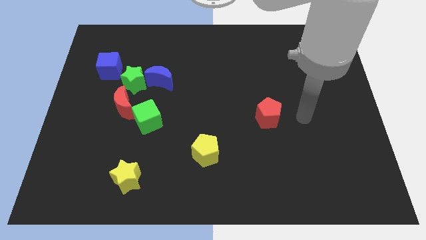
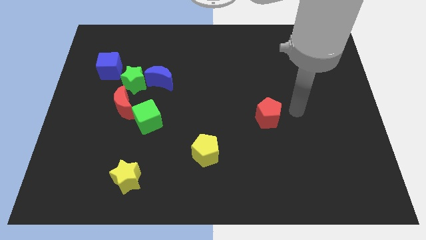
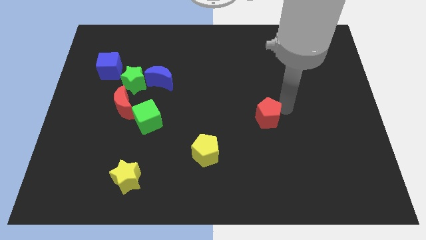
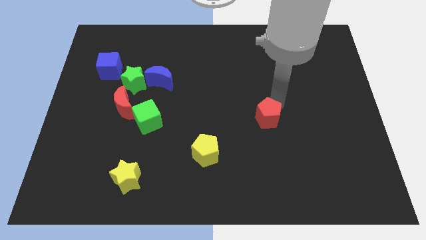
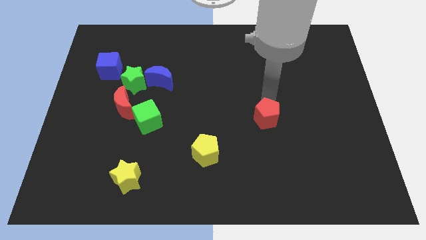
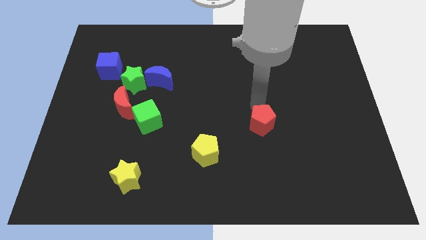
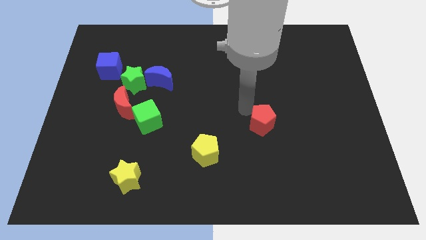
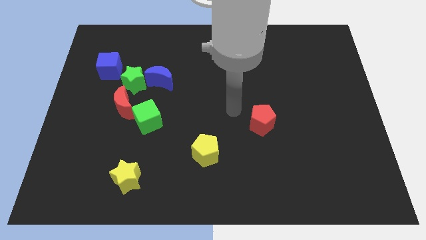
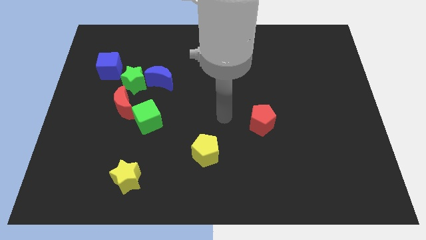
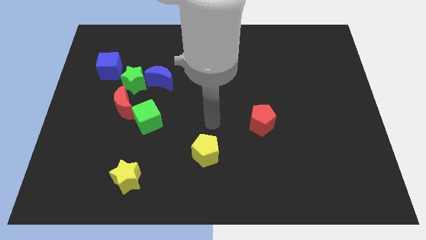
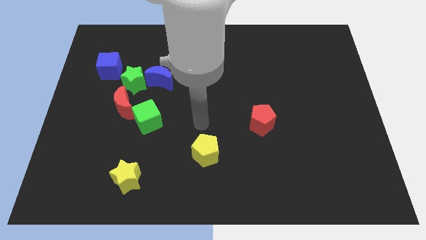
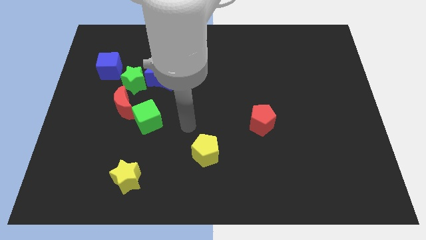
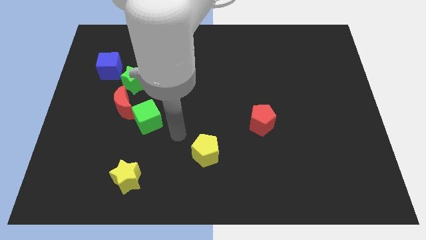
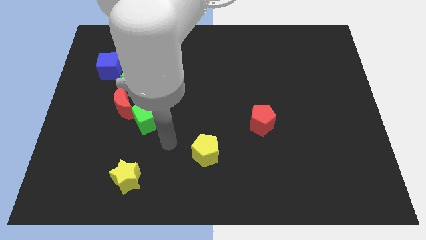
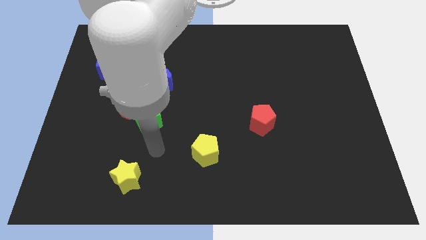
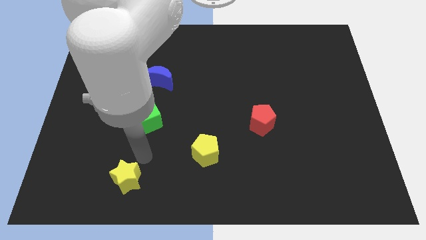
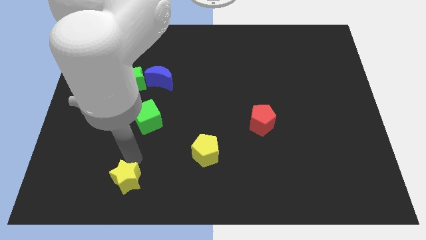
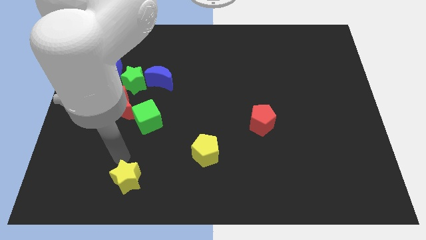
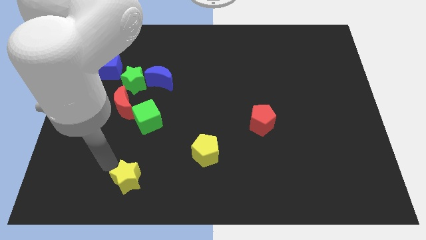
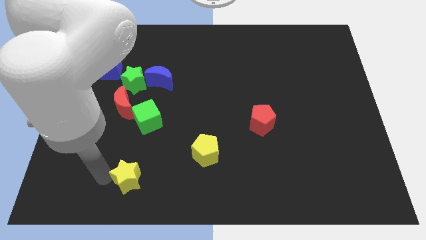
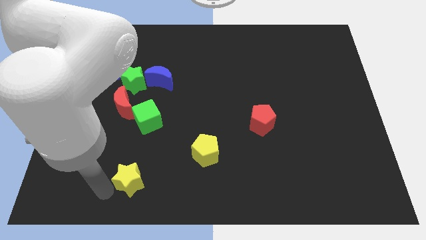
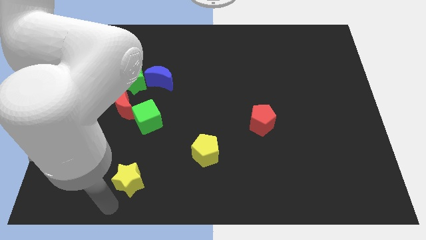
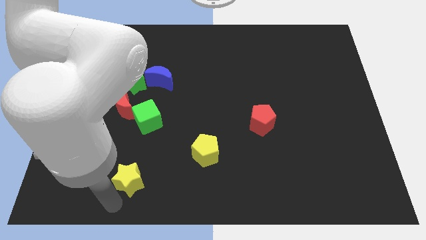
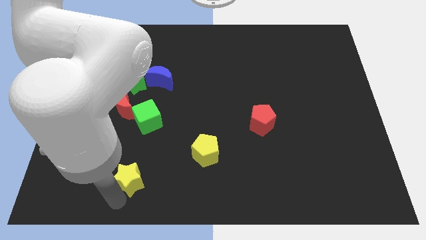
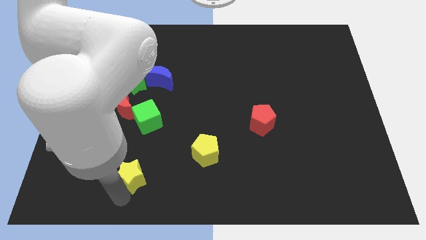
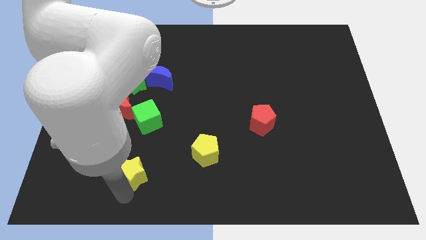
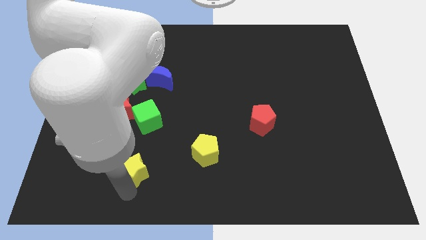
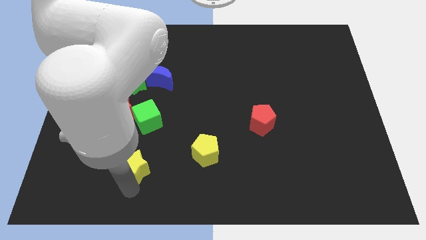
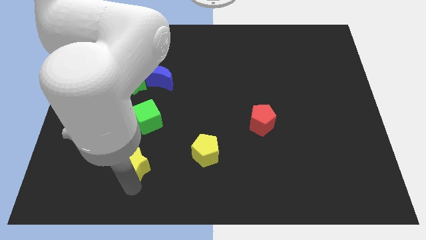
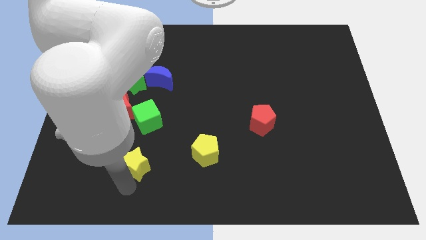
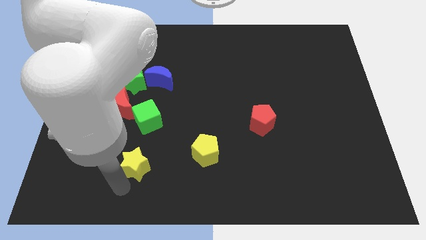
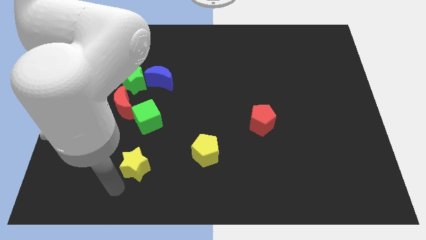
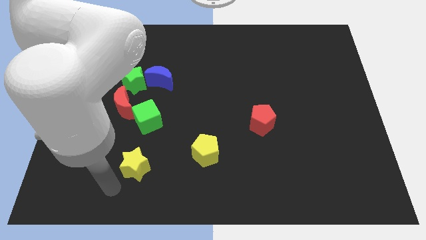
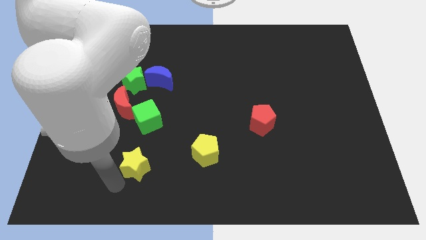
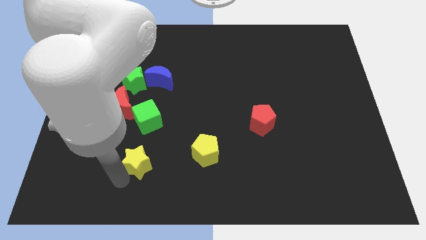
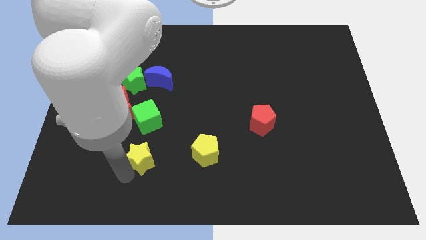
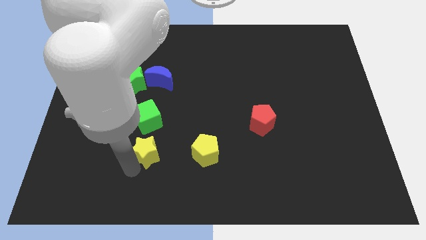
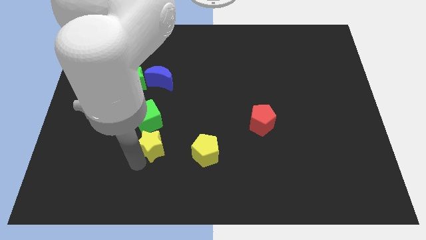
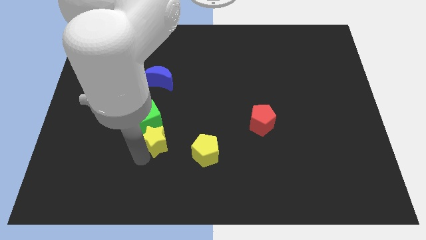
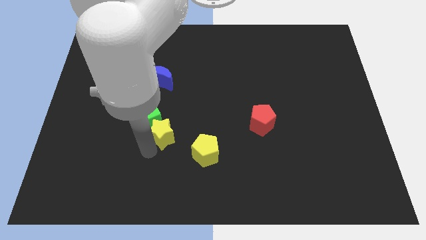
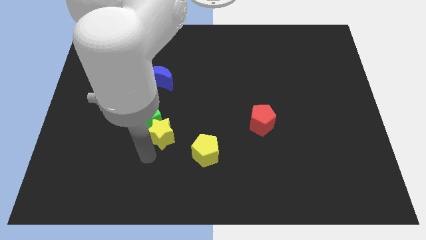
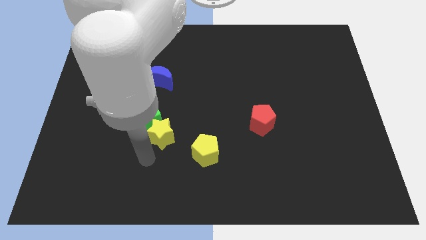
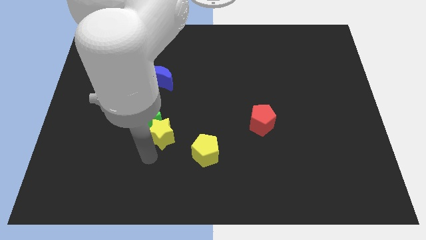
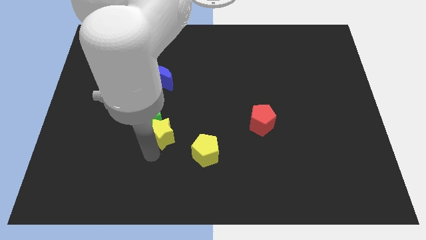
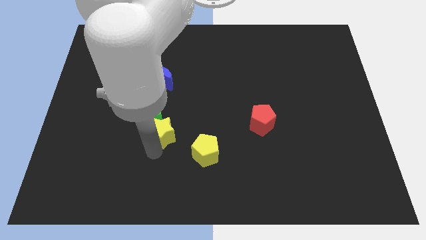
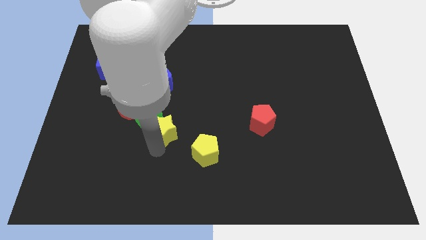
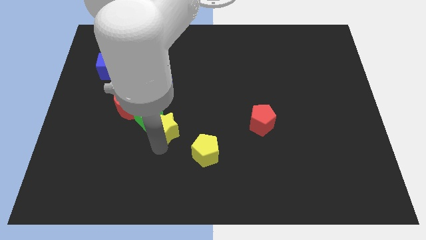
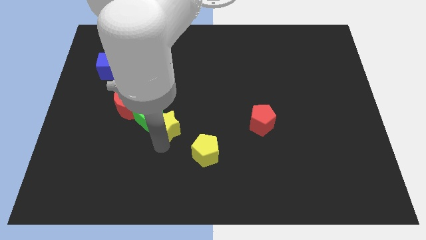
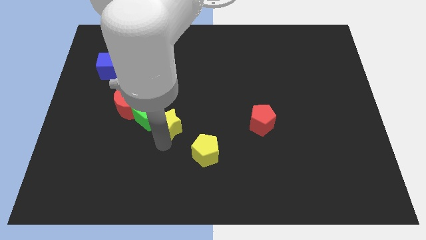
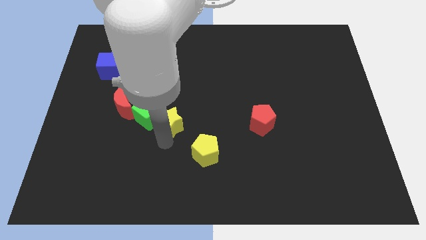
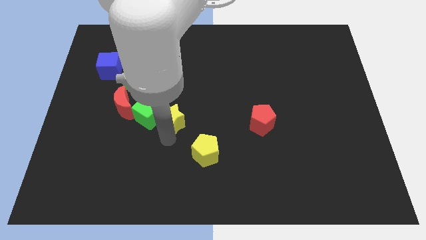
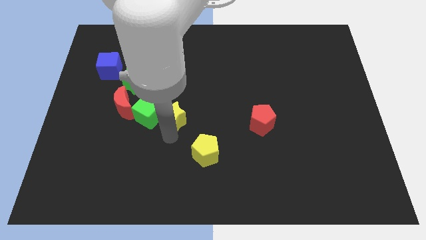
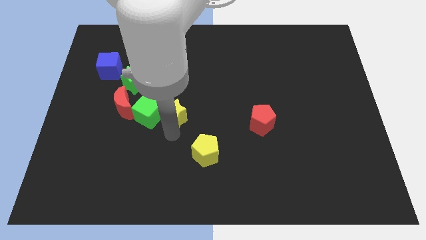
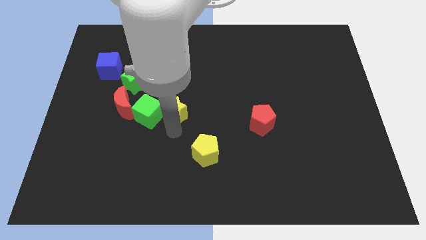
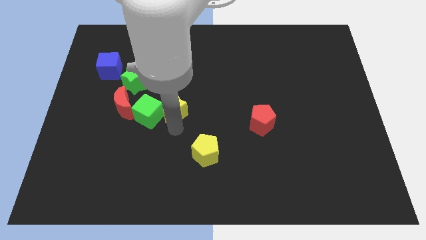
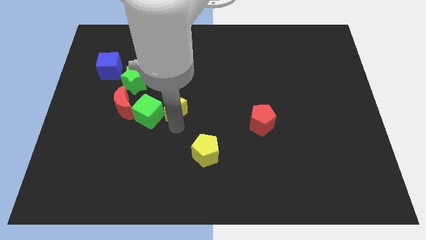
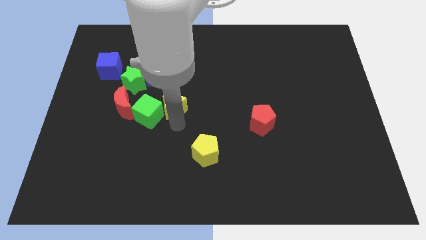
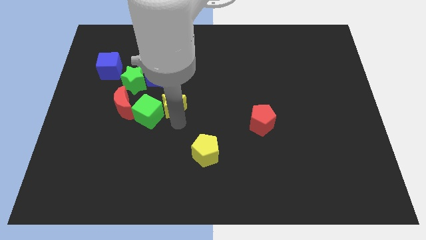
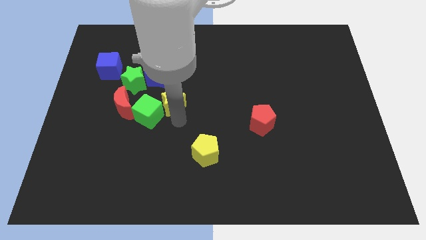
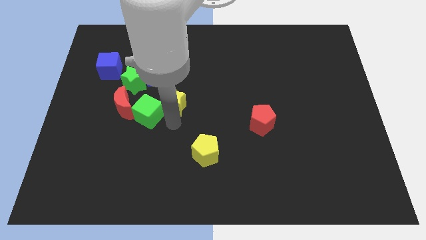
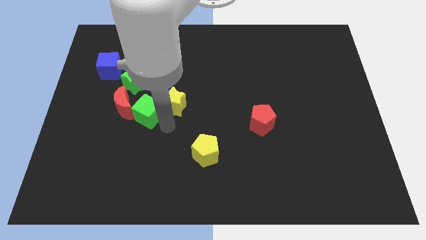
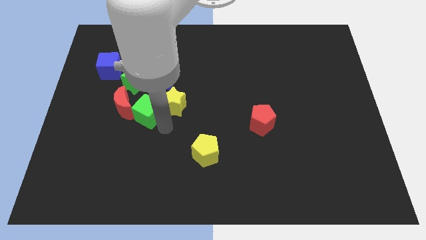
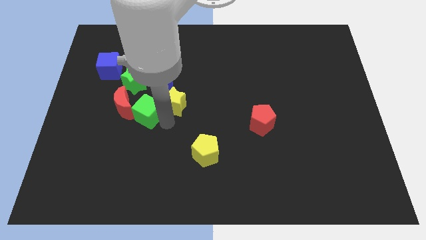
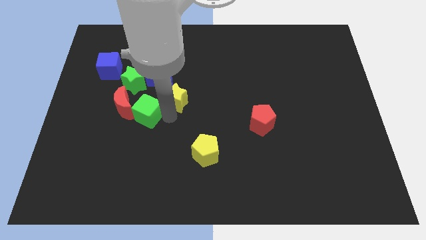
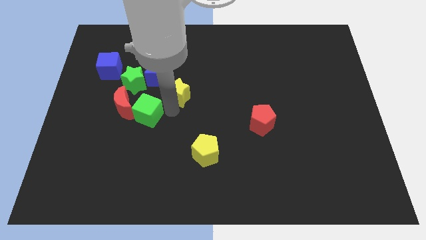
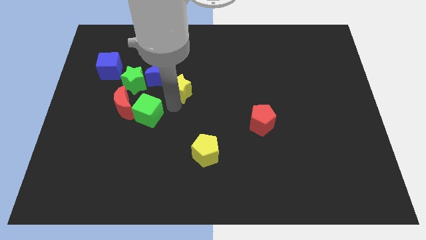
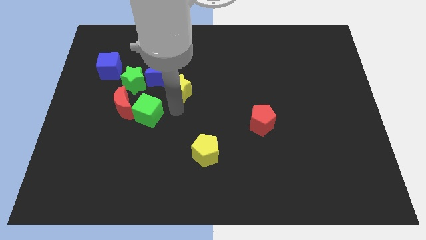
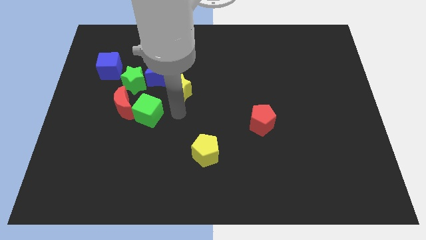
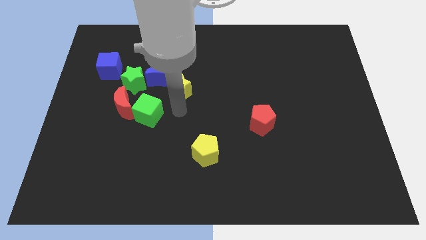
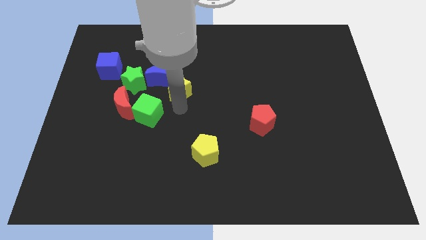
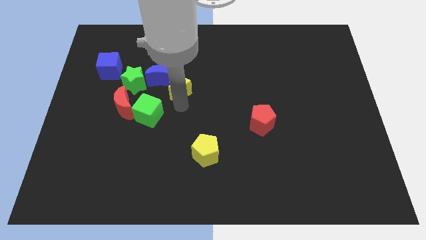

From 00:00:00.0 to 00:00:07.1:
slide the yellow star upwards

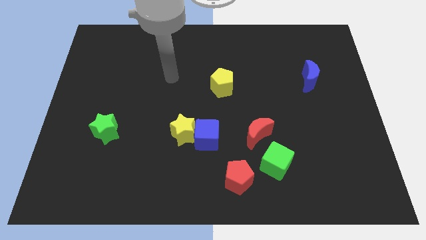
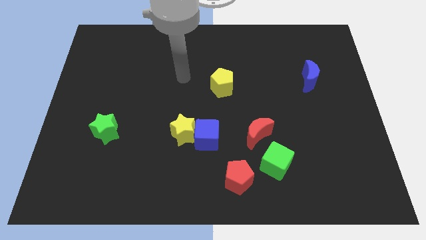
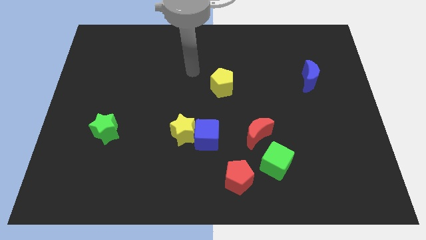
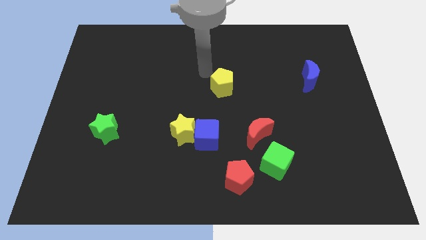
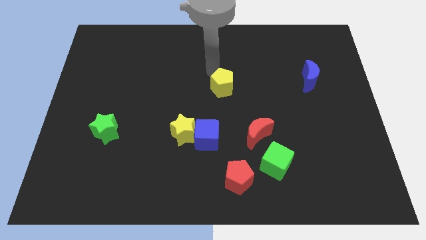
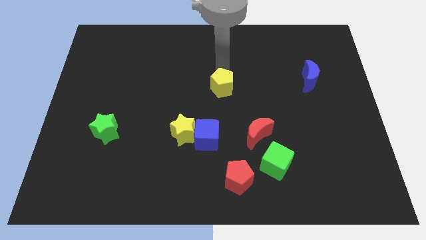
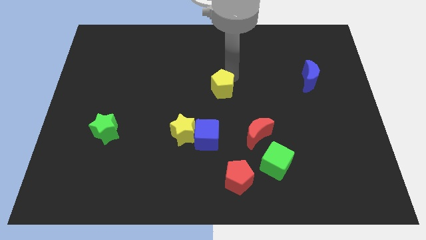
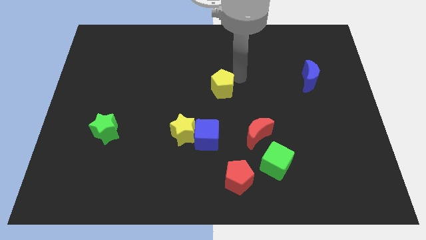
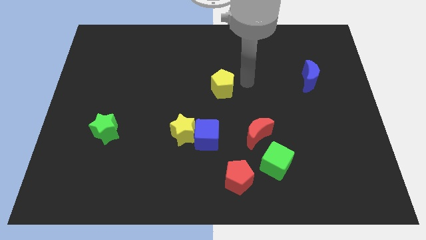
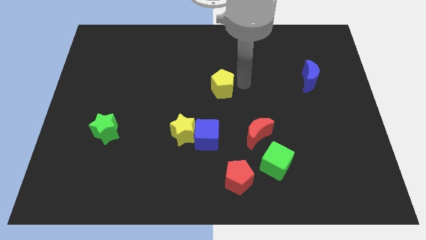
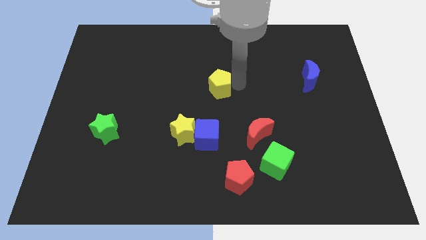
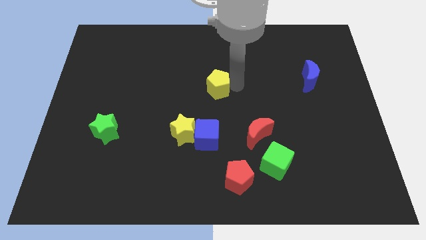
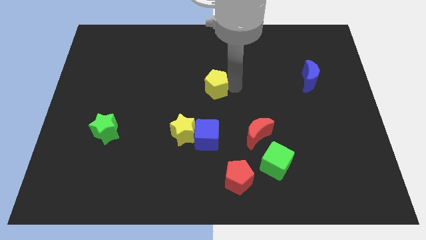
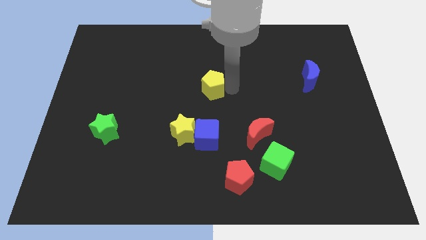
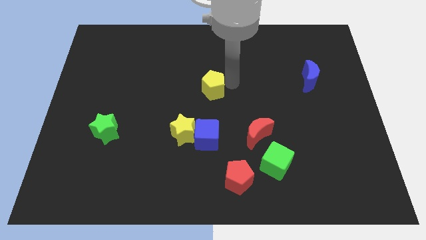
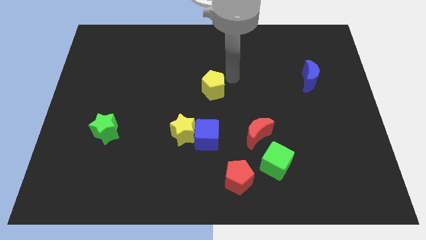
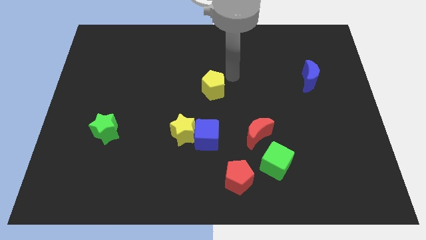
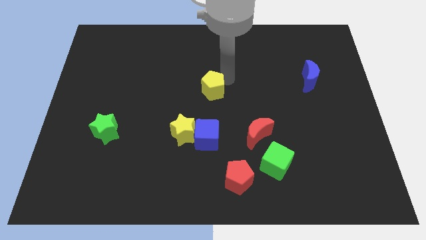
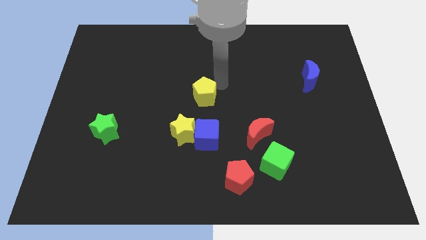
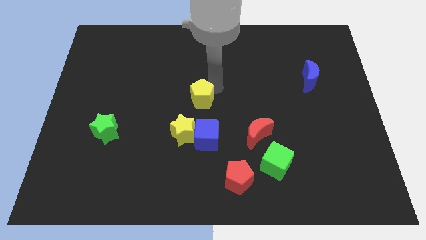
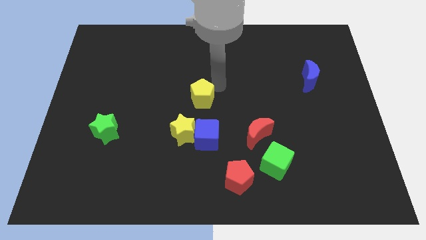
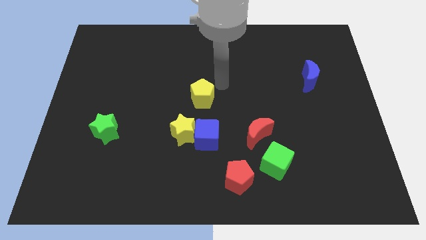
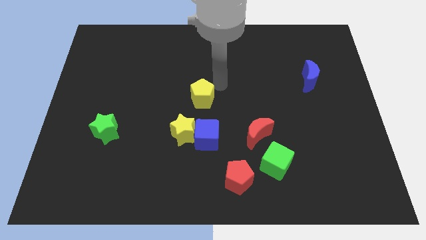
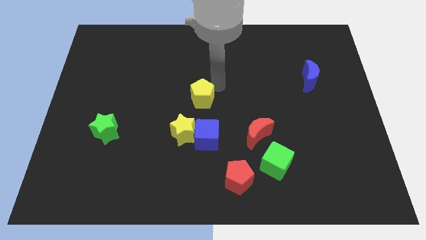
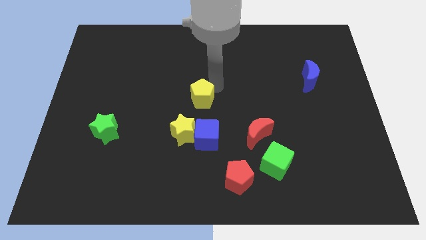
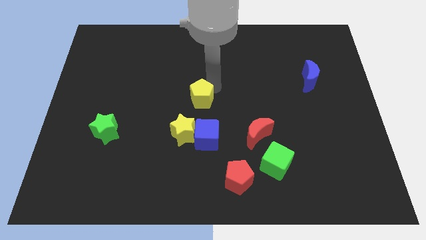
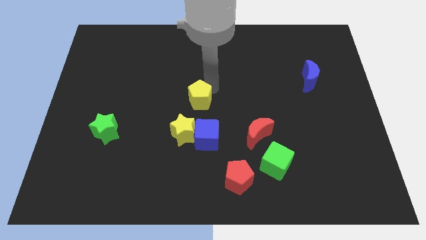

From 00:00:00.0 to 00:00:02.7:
push the yellow pentagon downwards and then to the left a little bit
